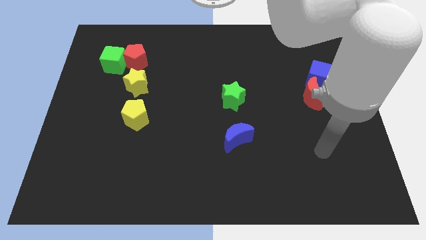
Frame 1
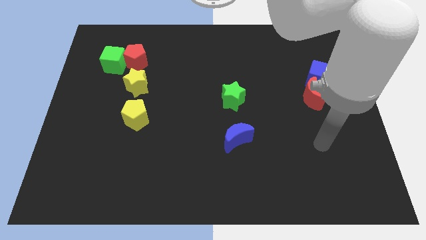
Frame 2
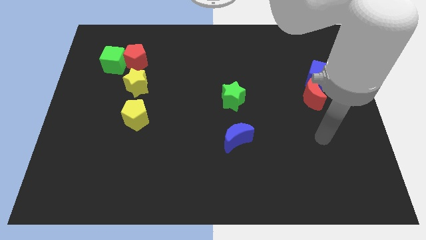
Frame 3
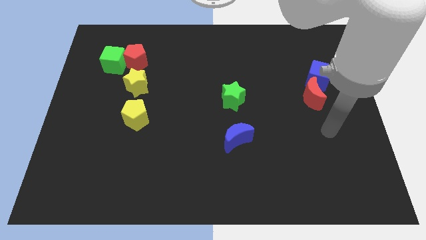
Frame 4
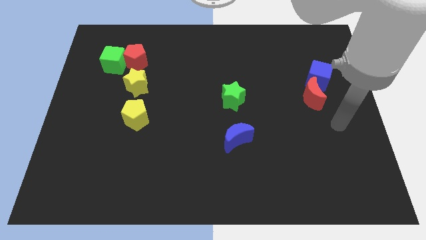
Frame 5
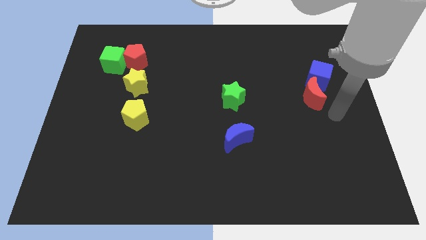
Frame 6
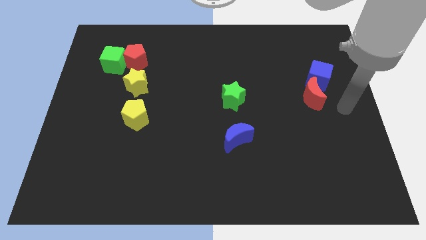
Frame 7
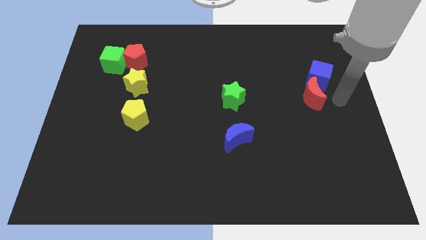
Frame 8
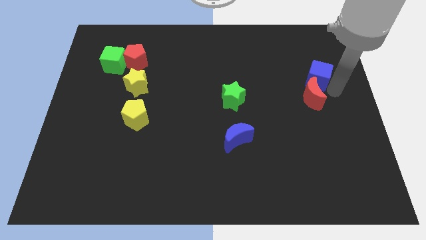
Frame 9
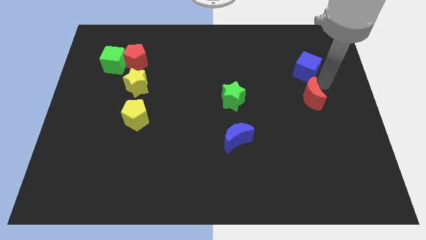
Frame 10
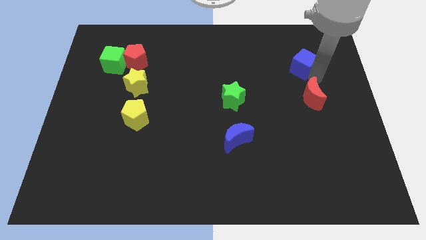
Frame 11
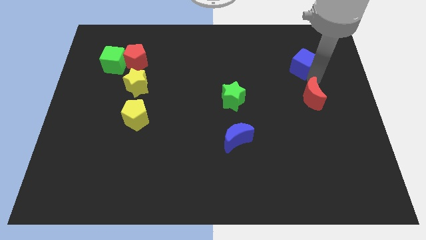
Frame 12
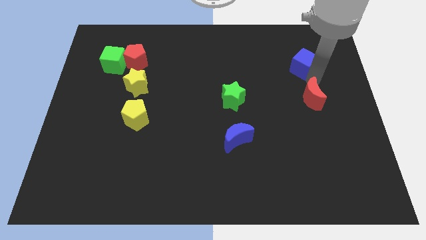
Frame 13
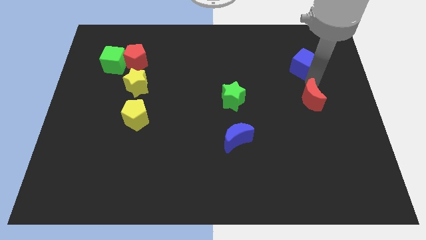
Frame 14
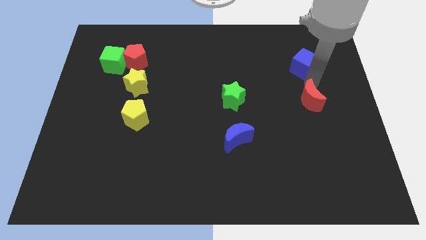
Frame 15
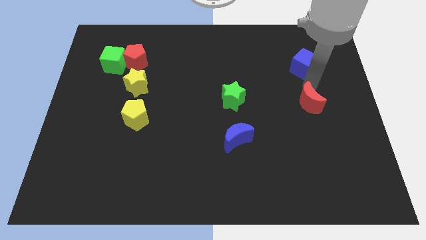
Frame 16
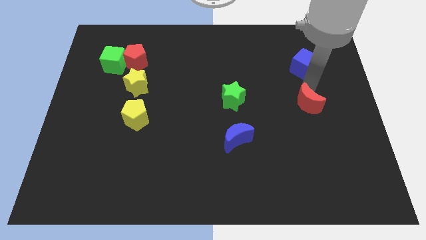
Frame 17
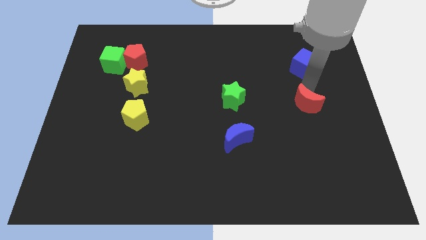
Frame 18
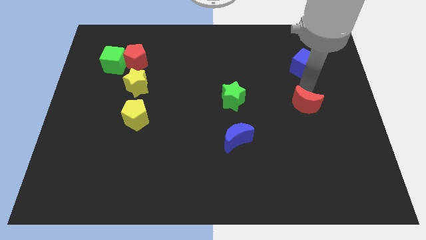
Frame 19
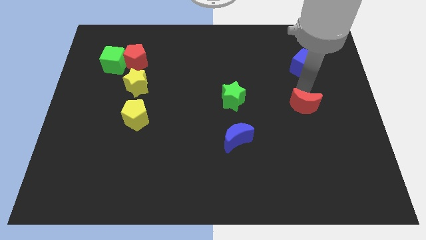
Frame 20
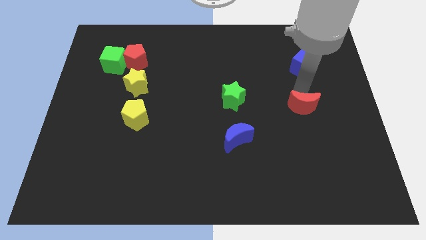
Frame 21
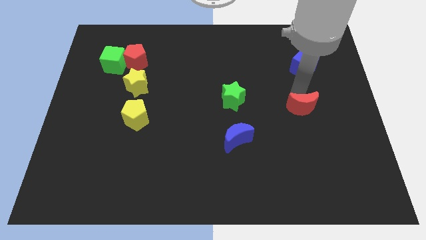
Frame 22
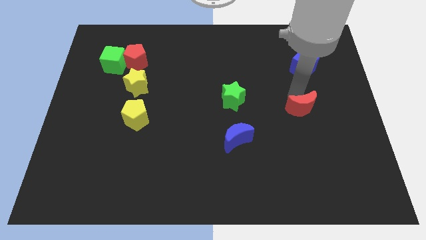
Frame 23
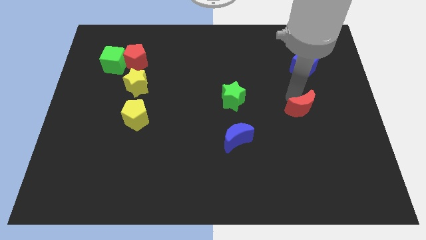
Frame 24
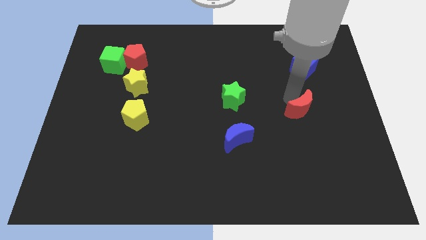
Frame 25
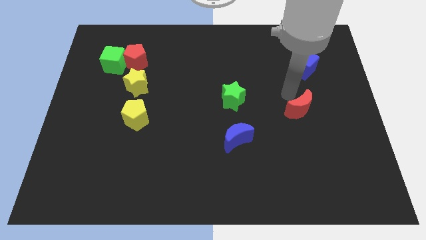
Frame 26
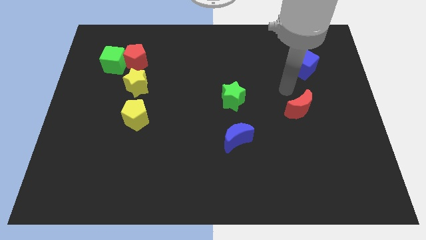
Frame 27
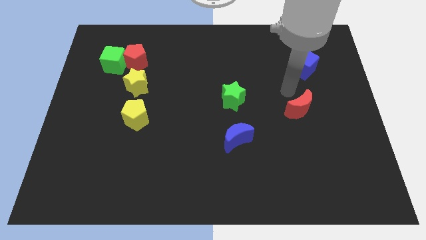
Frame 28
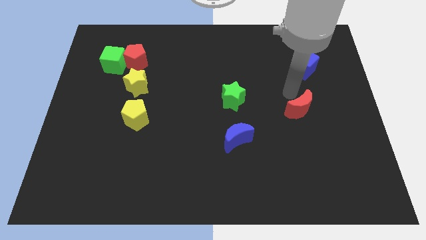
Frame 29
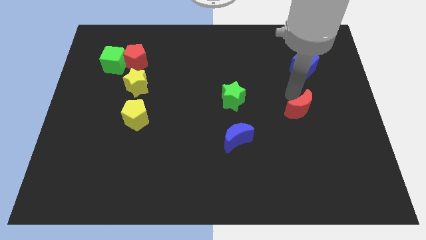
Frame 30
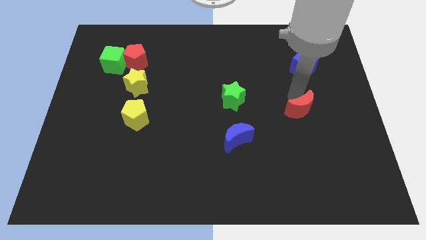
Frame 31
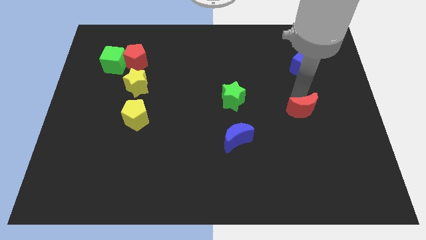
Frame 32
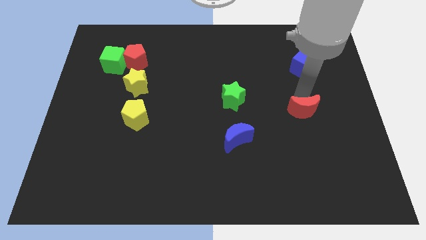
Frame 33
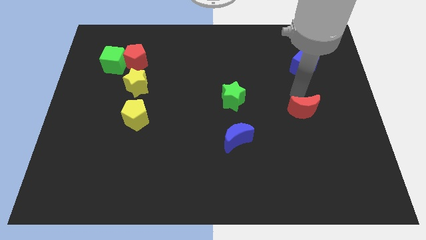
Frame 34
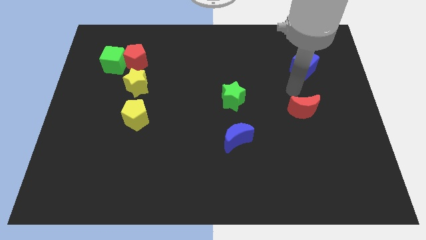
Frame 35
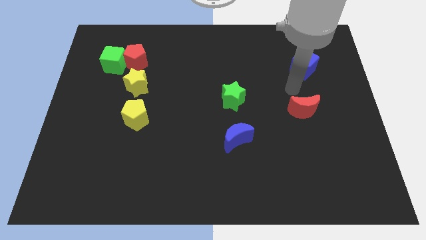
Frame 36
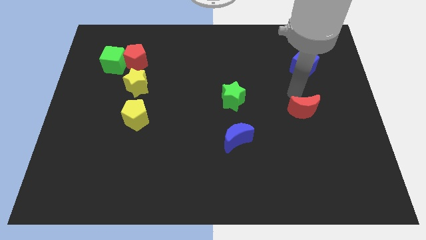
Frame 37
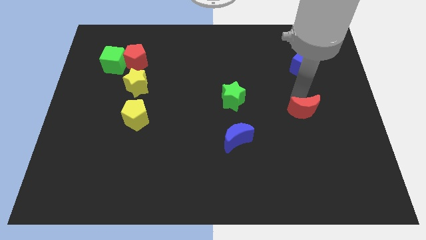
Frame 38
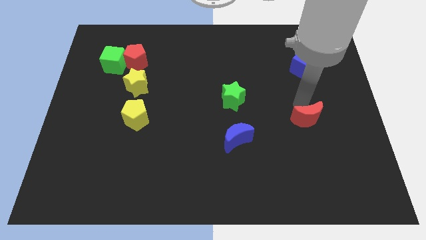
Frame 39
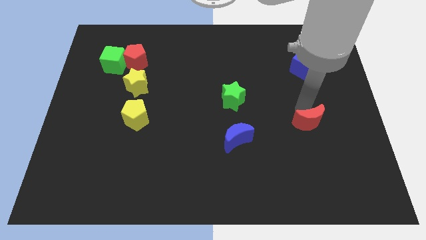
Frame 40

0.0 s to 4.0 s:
push the red moon a little down

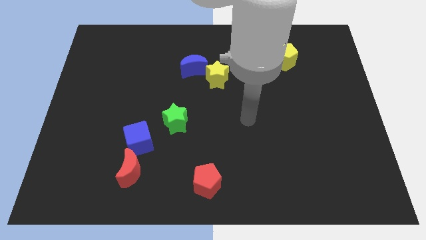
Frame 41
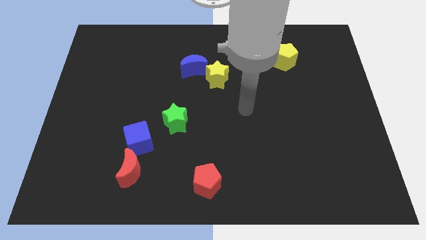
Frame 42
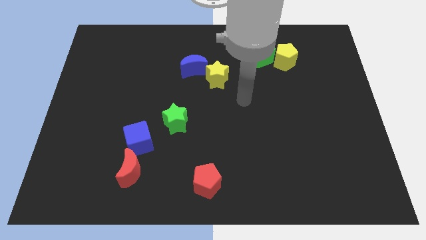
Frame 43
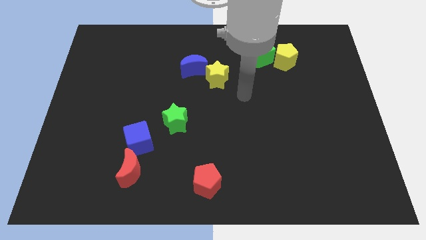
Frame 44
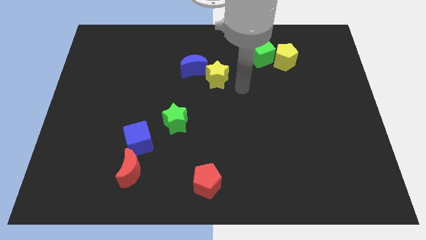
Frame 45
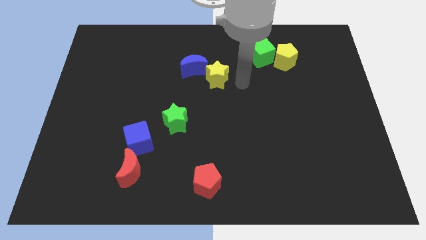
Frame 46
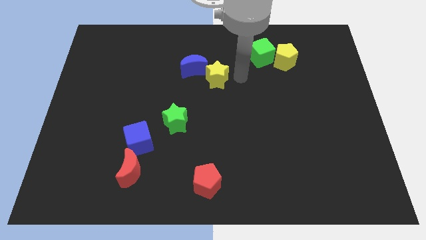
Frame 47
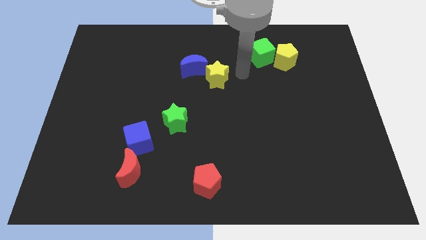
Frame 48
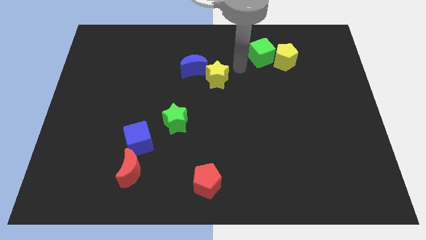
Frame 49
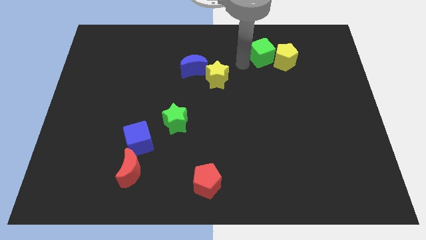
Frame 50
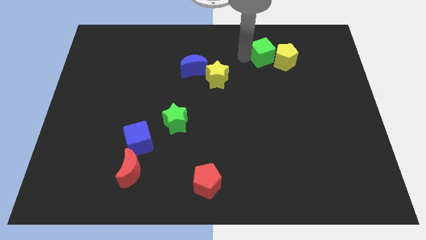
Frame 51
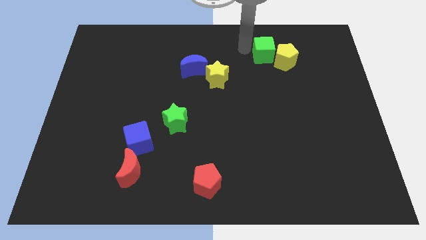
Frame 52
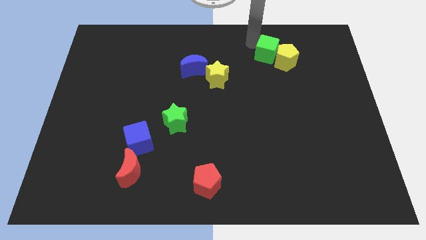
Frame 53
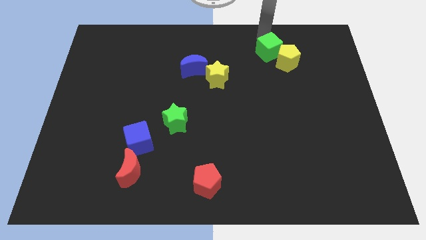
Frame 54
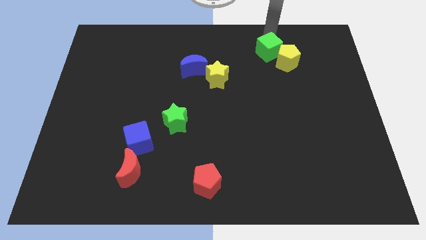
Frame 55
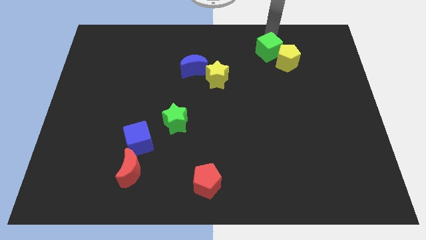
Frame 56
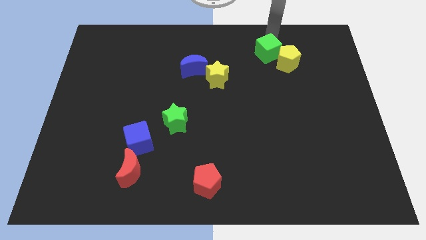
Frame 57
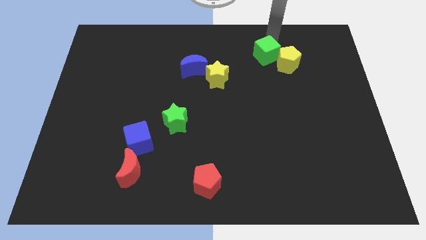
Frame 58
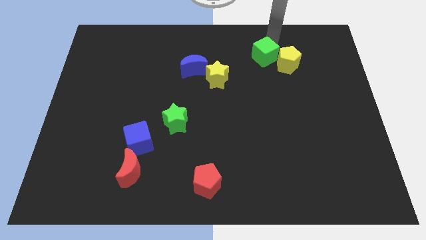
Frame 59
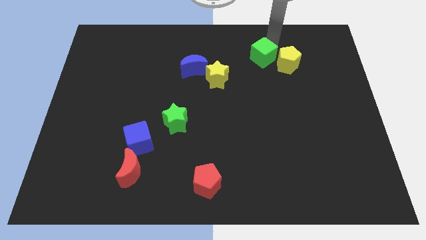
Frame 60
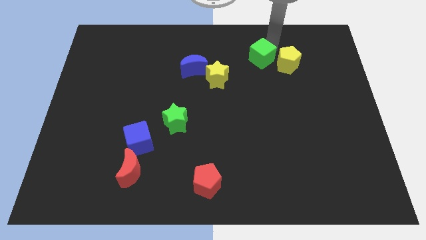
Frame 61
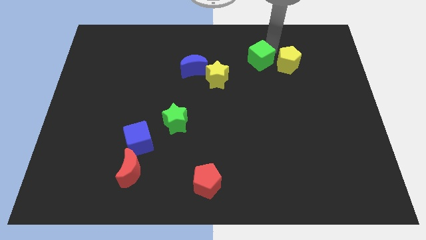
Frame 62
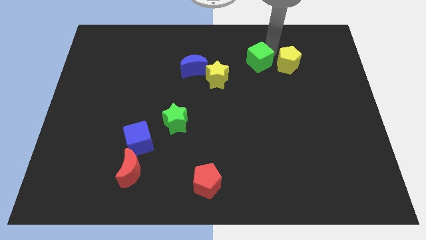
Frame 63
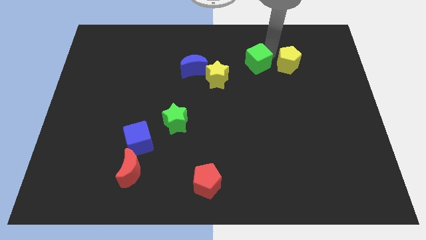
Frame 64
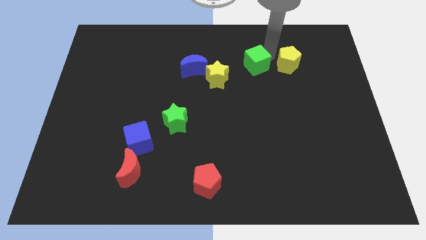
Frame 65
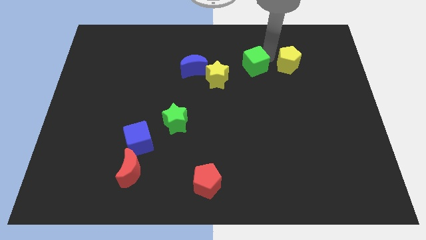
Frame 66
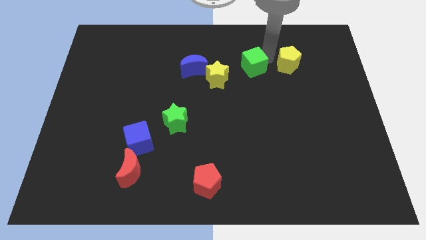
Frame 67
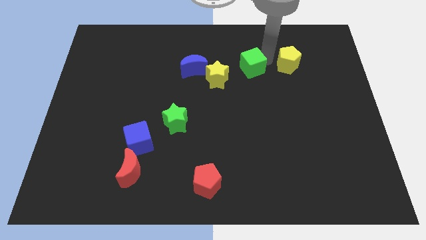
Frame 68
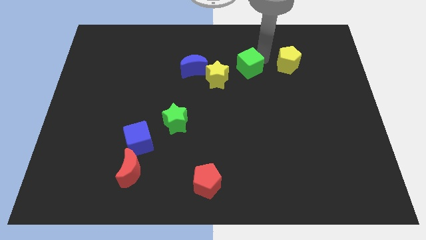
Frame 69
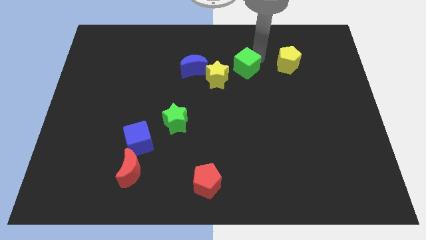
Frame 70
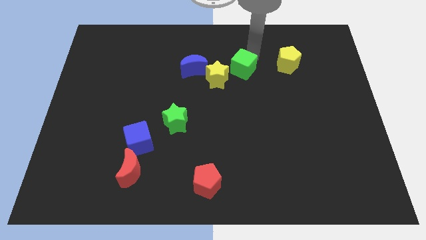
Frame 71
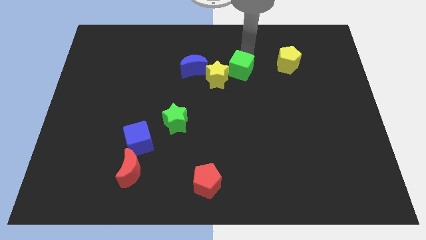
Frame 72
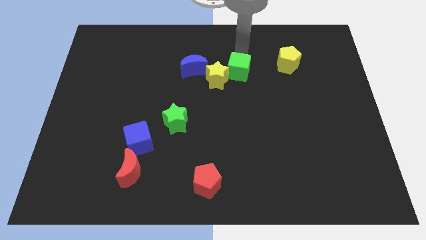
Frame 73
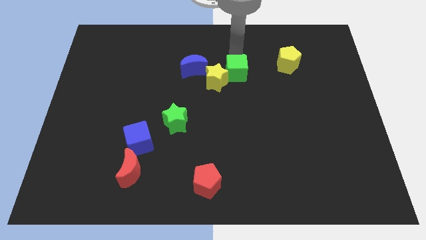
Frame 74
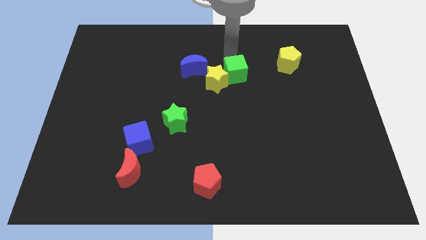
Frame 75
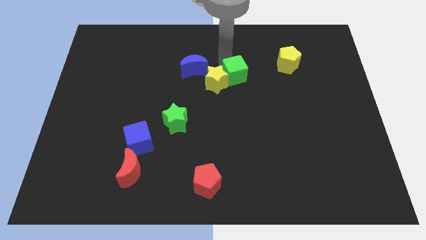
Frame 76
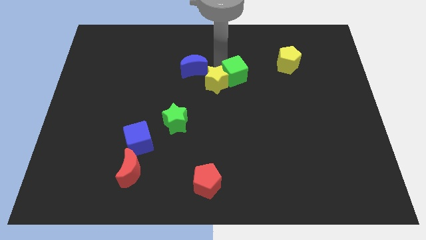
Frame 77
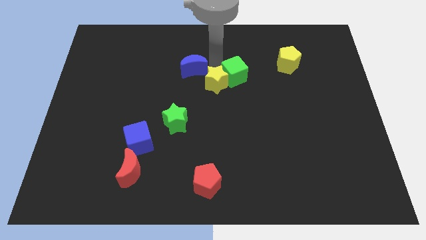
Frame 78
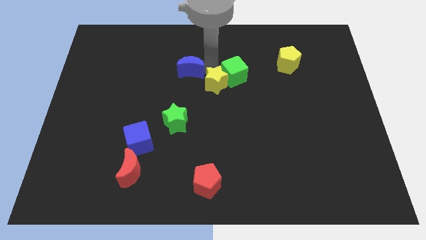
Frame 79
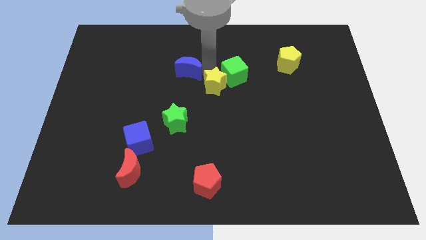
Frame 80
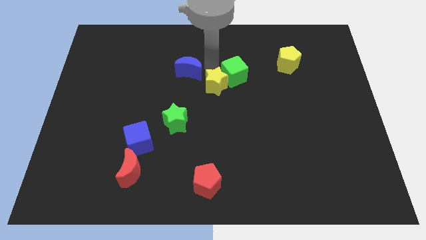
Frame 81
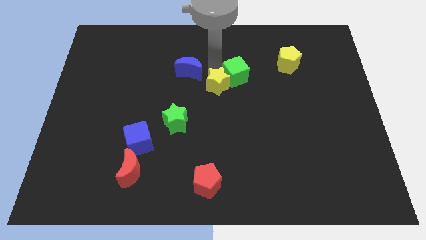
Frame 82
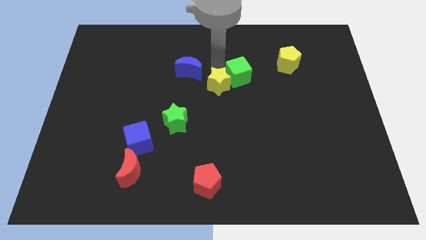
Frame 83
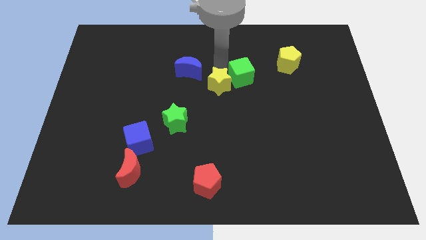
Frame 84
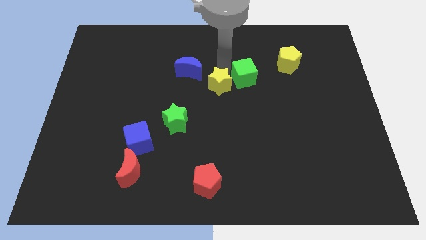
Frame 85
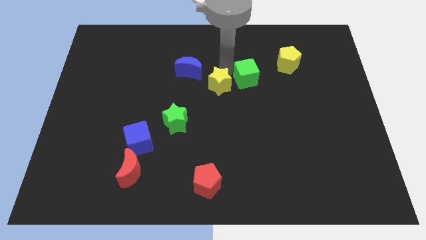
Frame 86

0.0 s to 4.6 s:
slightly move the green cube downwards

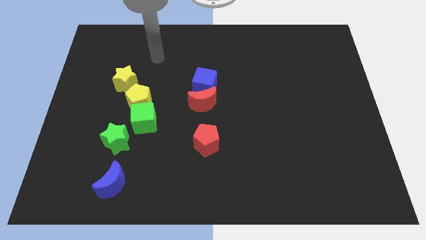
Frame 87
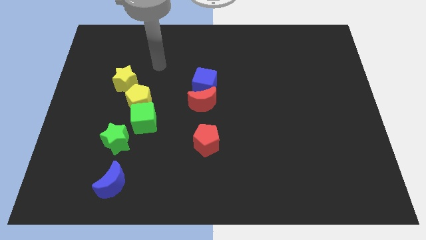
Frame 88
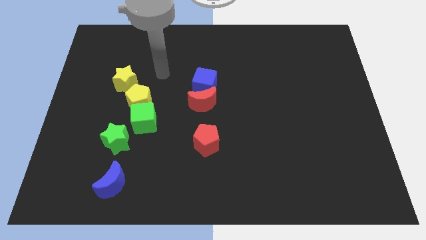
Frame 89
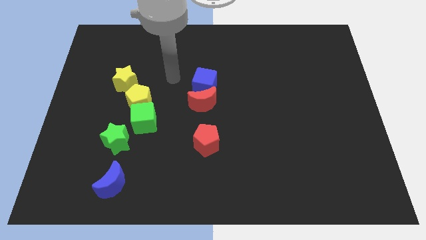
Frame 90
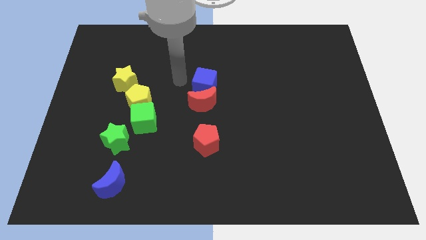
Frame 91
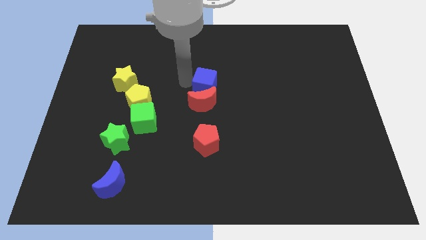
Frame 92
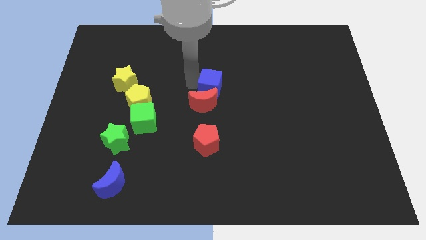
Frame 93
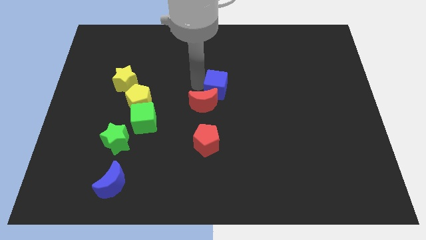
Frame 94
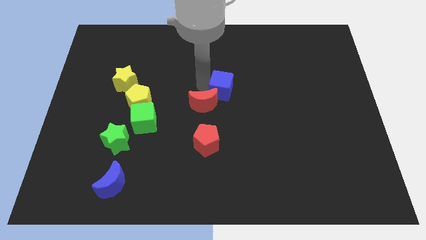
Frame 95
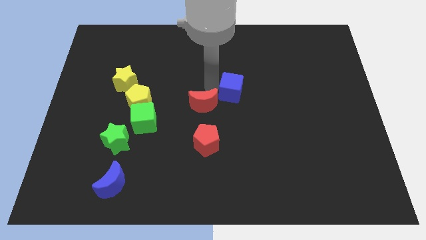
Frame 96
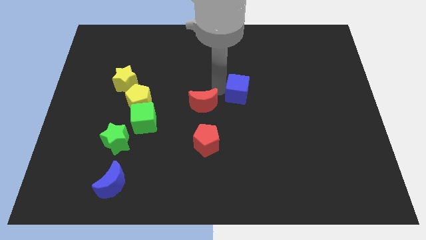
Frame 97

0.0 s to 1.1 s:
slightly move the blue cube right
